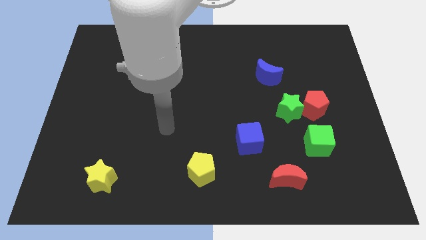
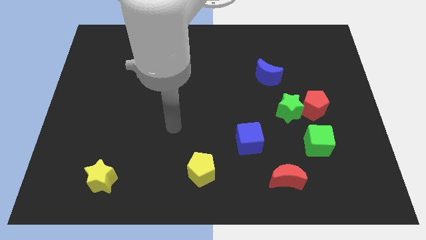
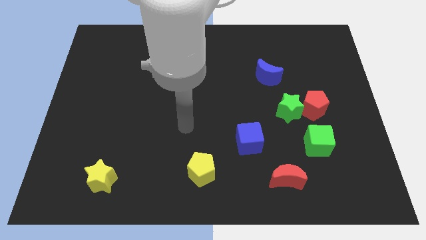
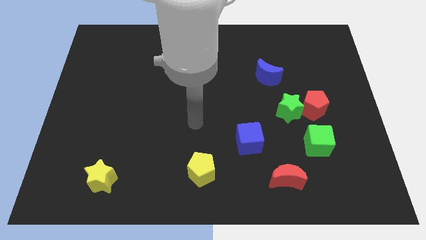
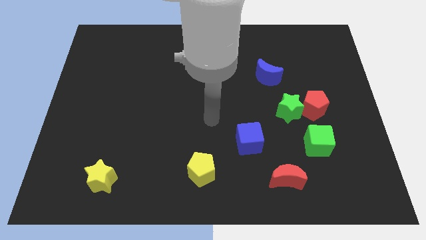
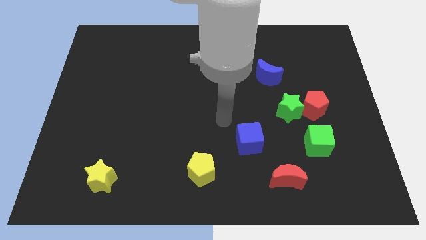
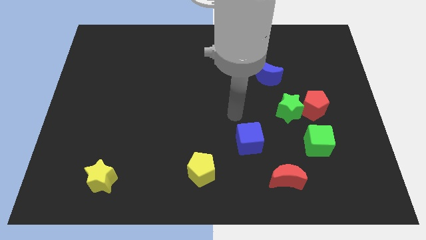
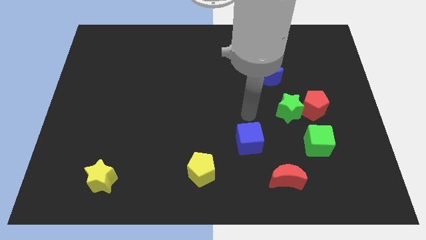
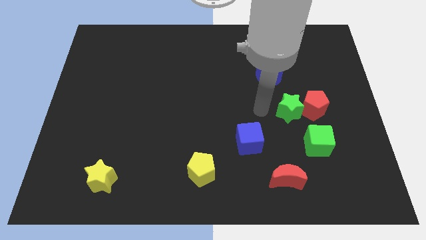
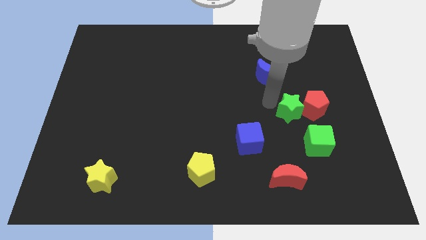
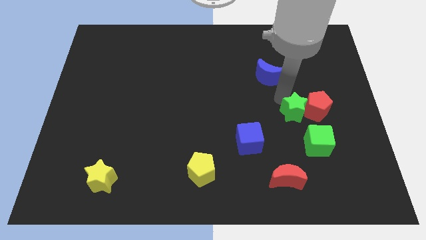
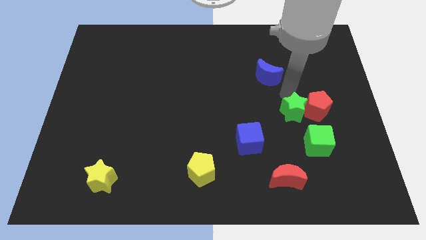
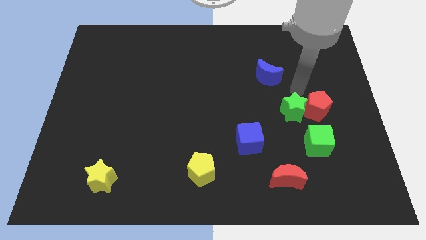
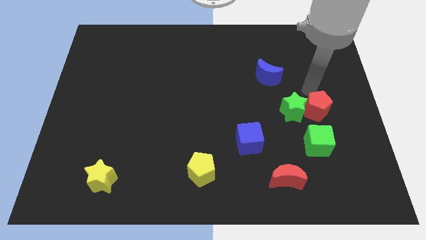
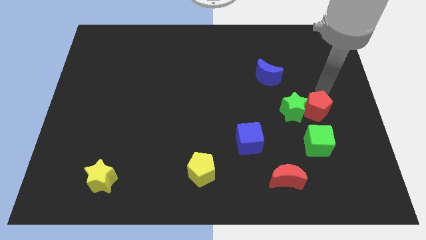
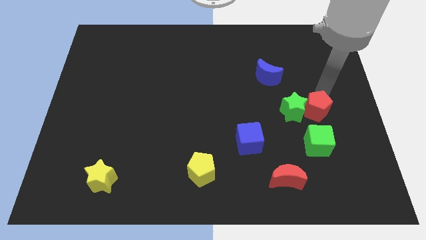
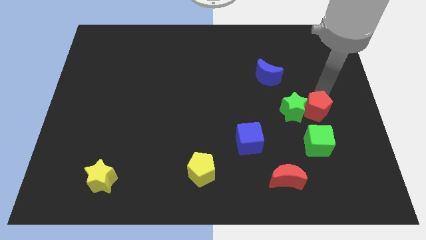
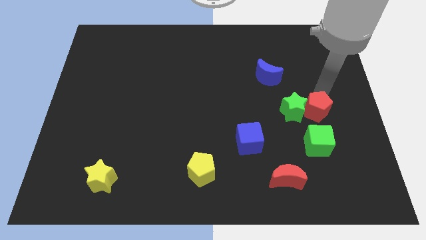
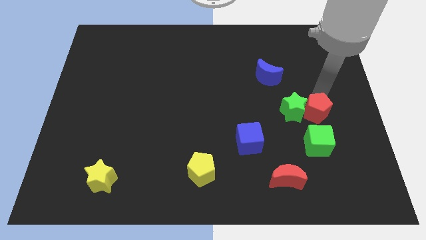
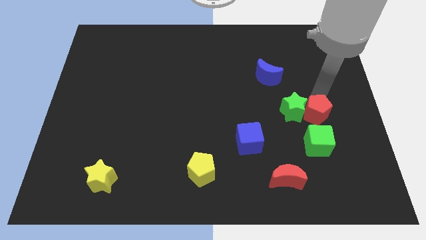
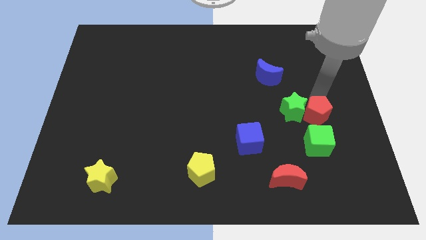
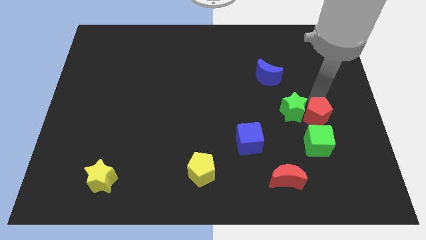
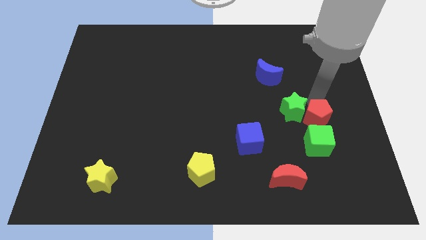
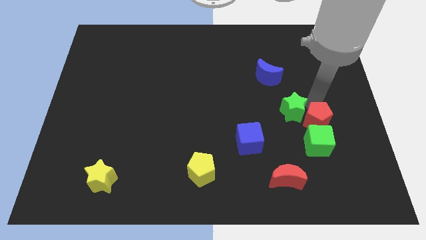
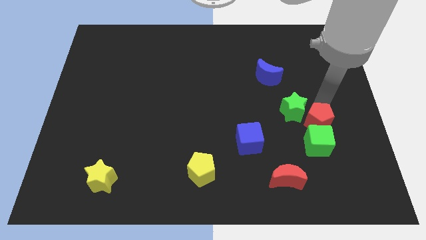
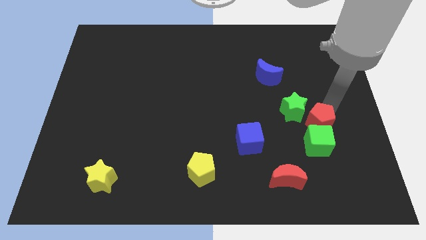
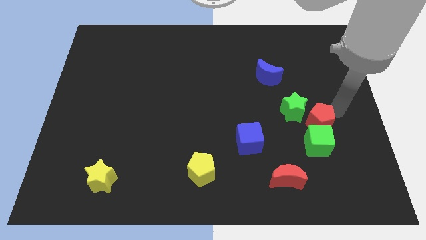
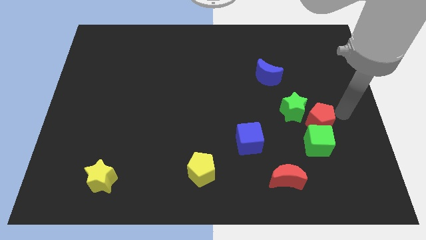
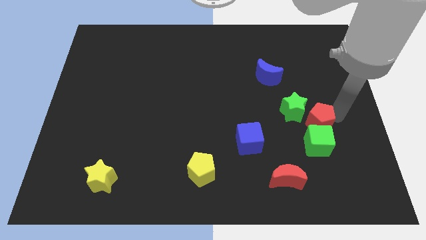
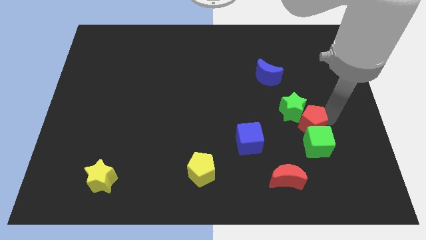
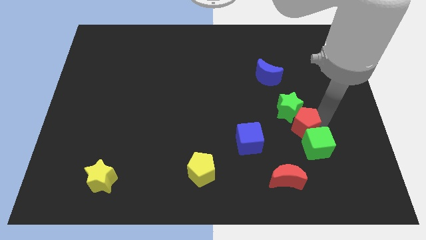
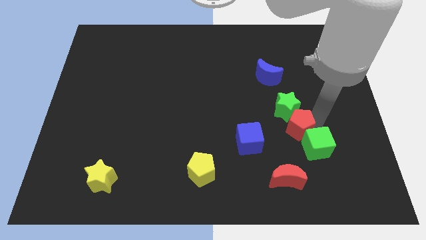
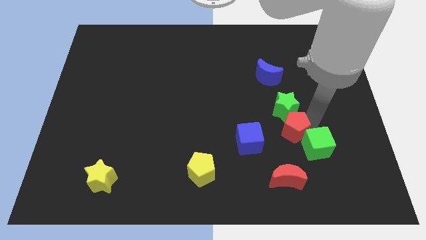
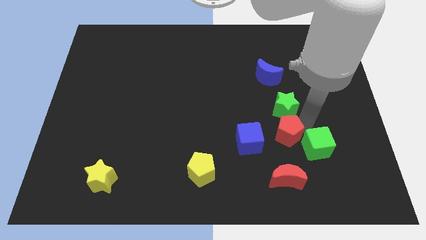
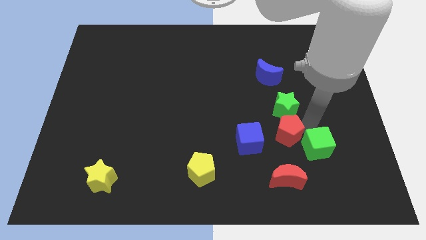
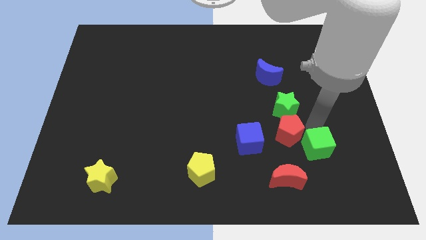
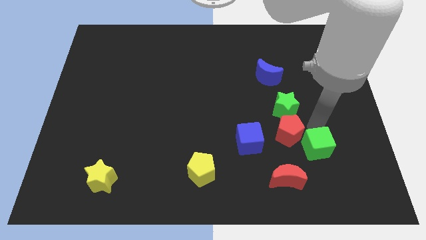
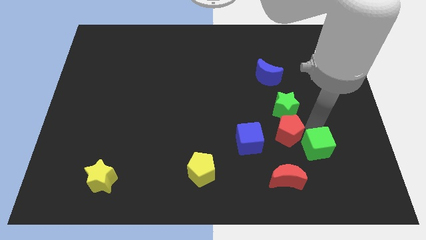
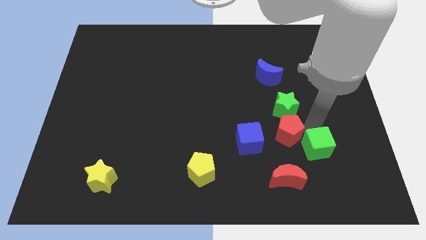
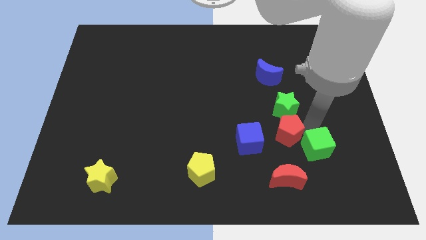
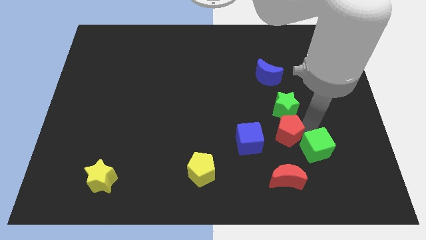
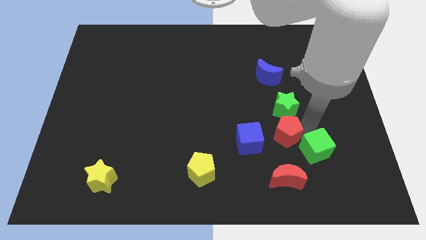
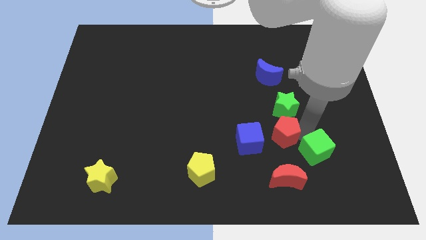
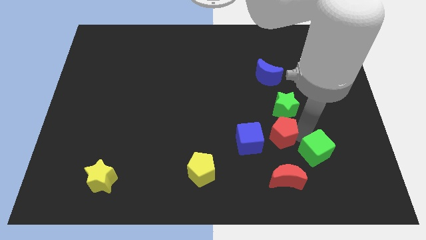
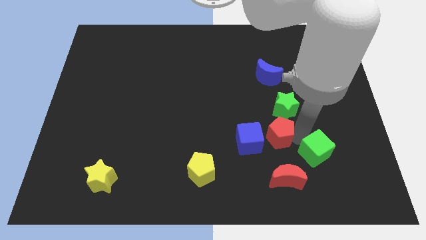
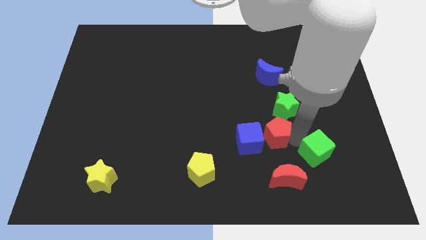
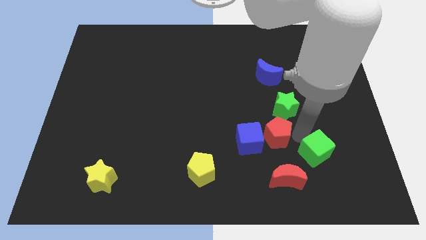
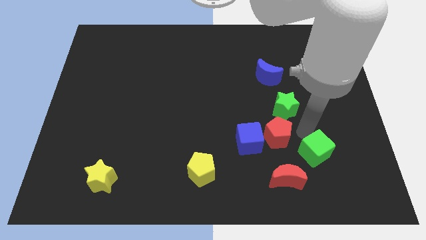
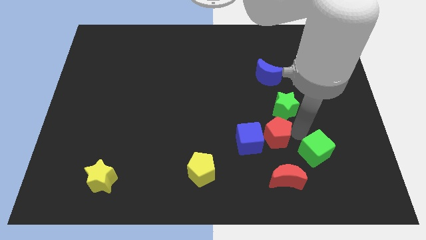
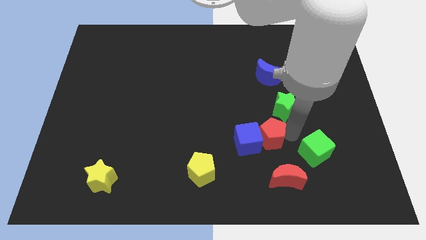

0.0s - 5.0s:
push the red pentagon towards the blue cube

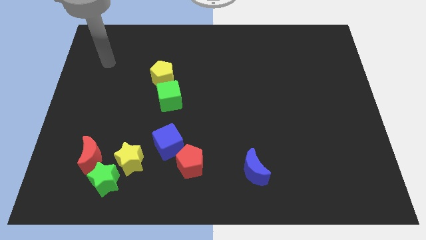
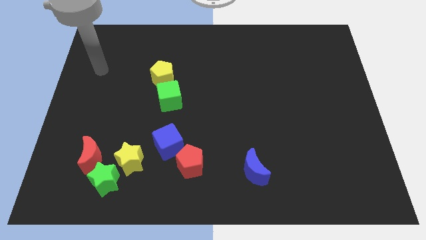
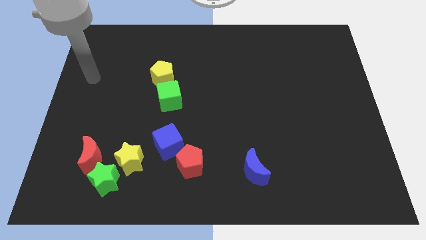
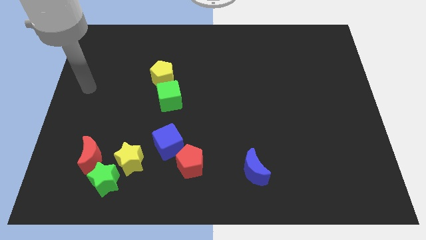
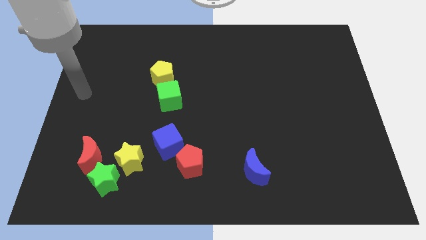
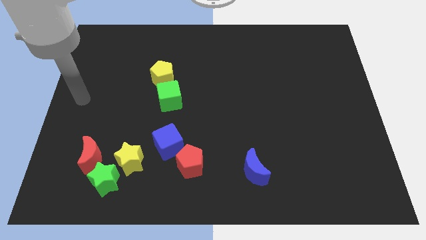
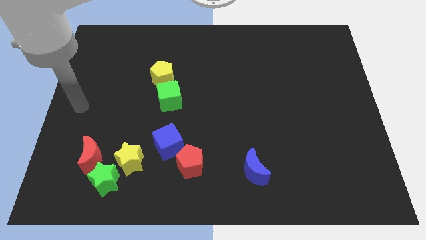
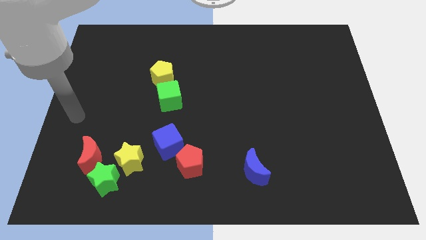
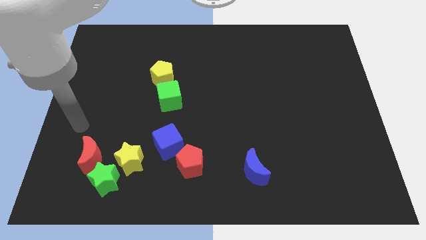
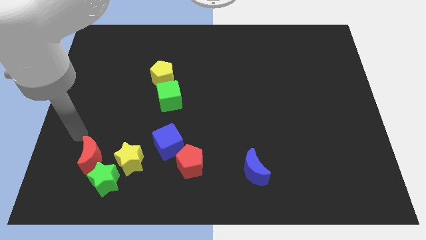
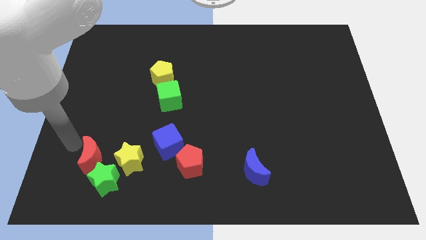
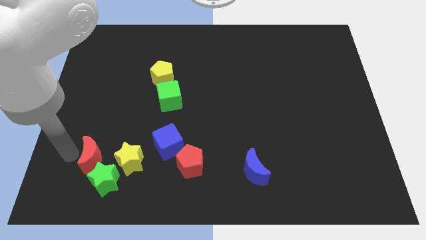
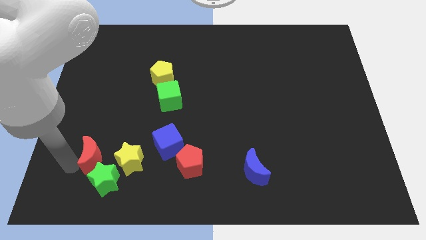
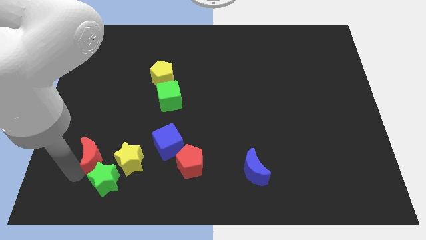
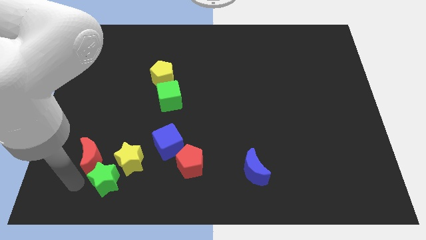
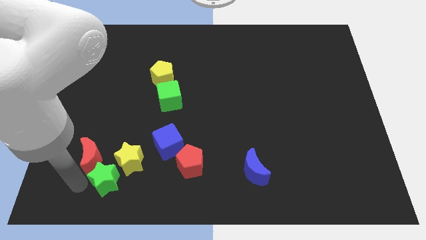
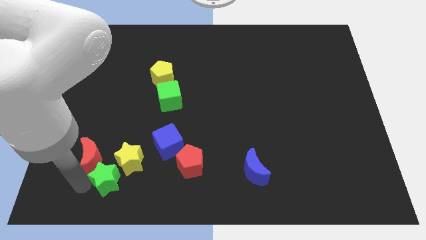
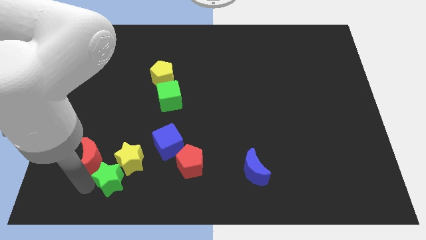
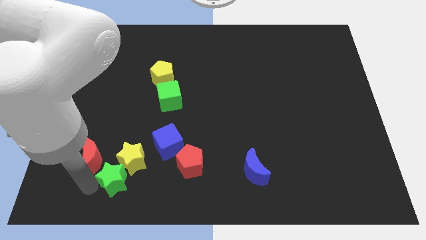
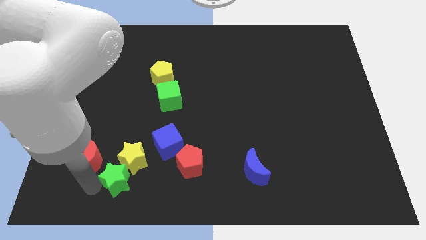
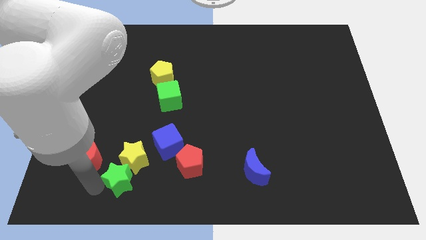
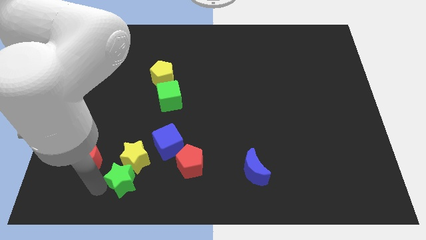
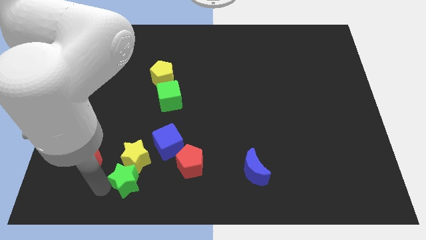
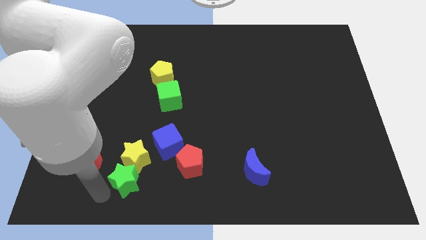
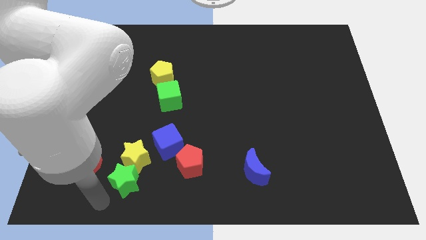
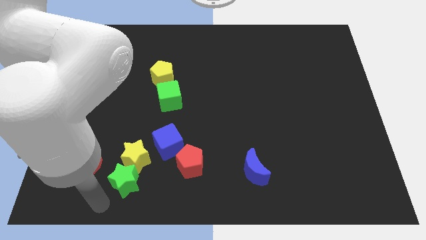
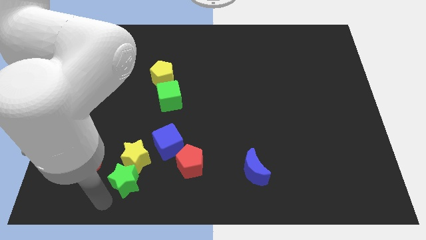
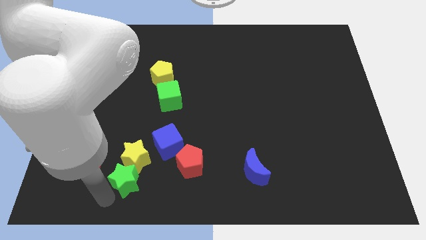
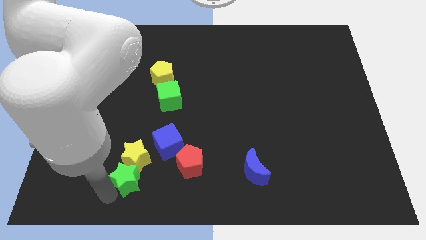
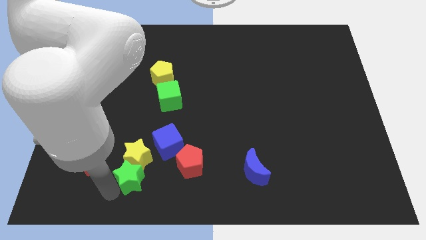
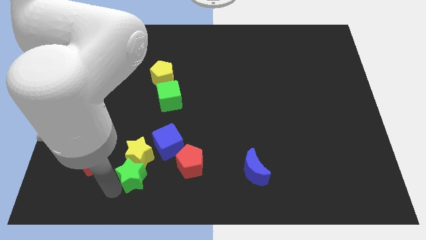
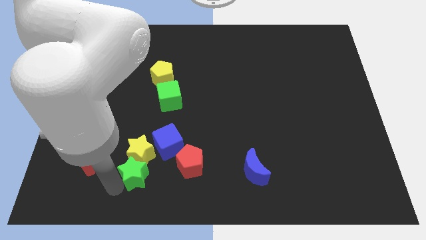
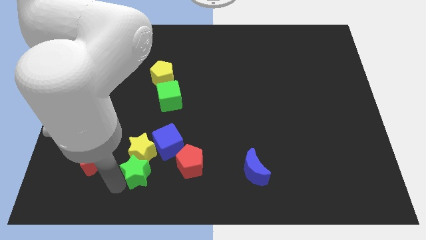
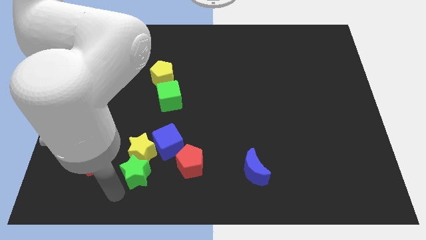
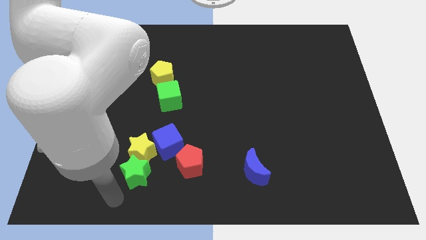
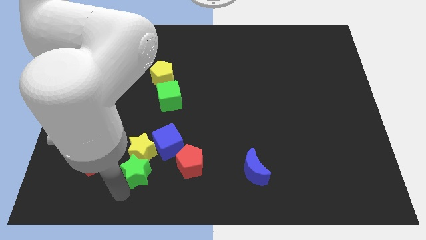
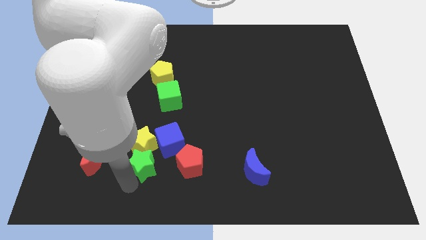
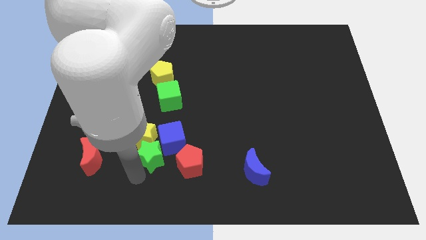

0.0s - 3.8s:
slide the green star towards the blue cube
